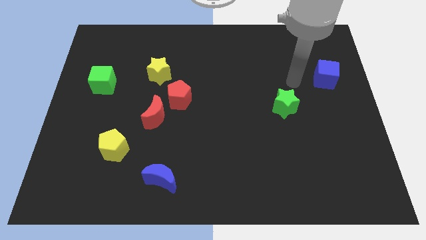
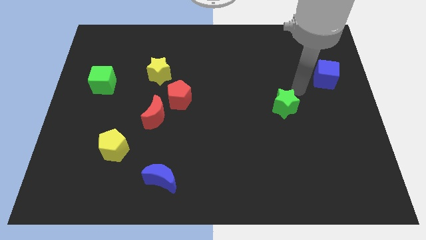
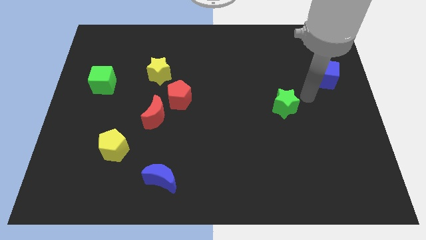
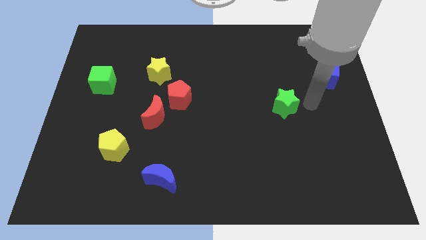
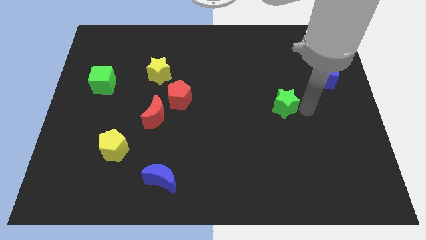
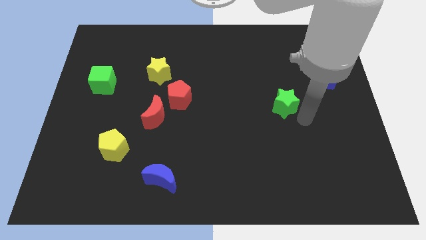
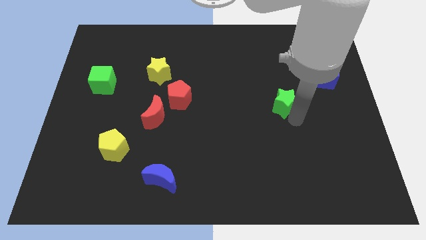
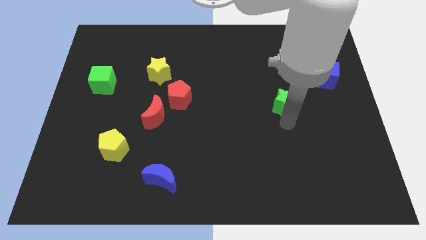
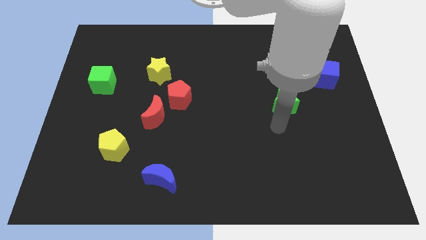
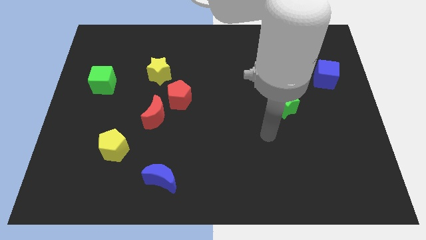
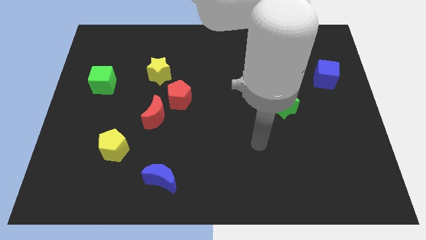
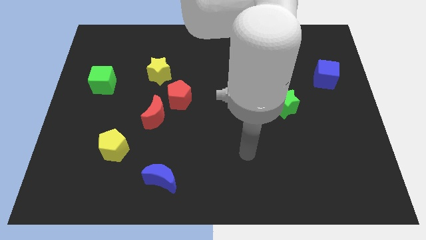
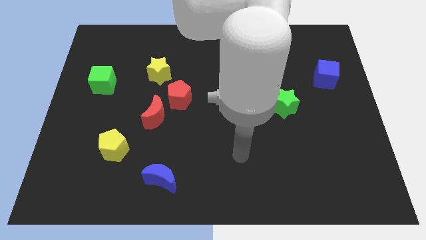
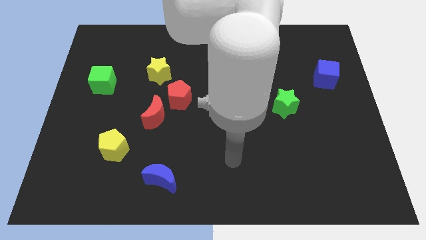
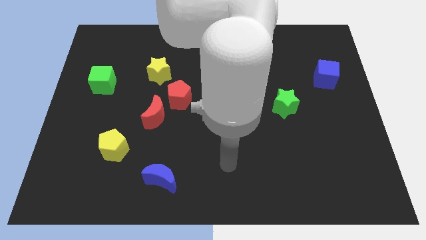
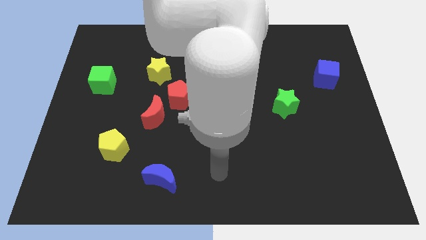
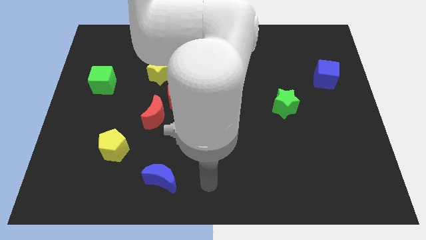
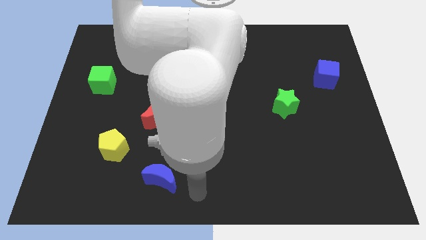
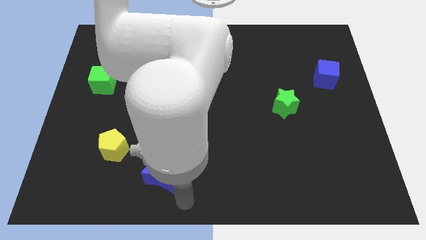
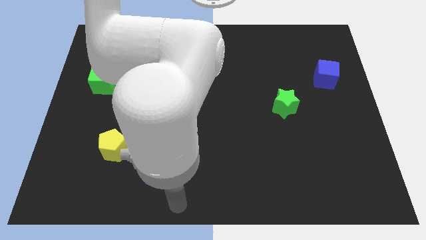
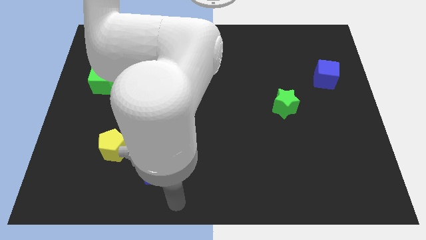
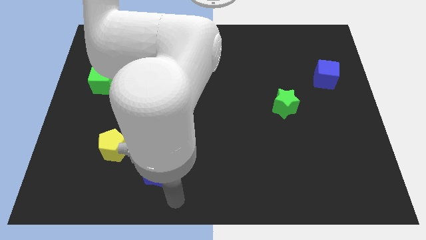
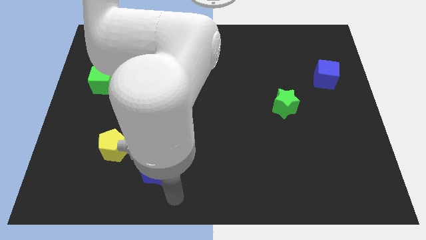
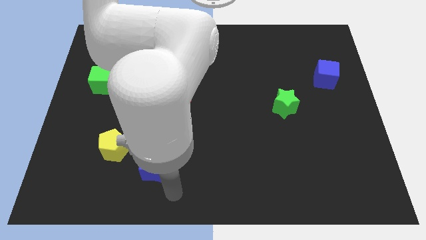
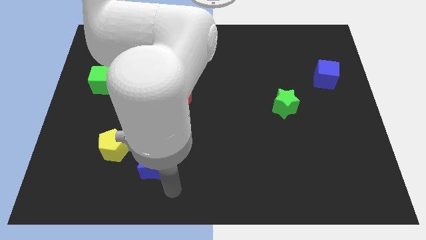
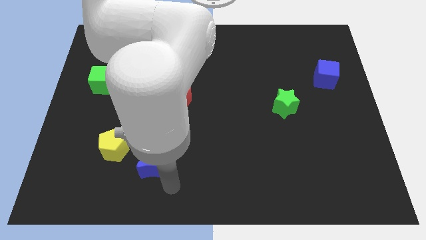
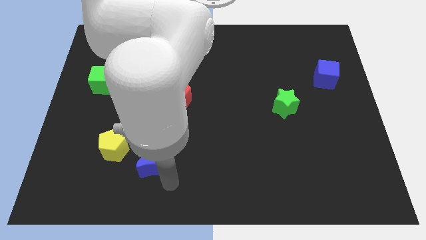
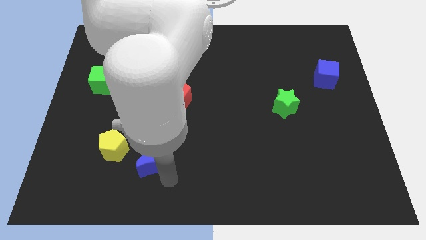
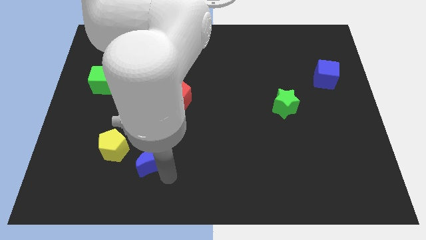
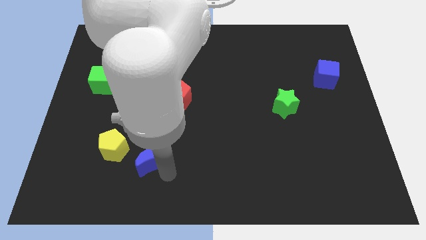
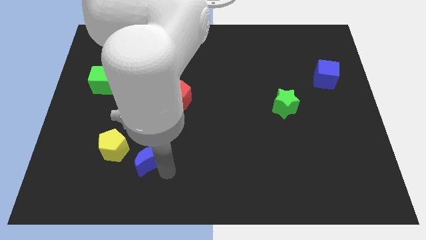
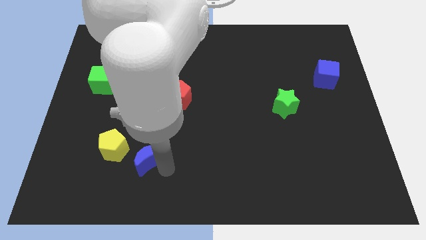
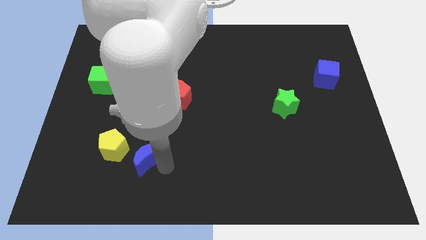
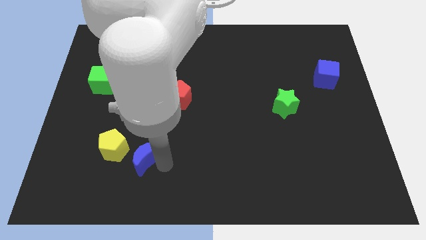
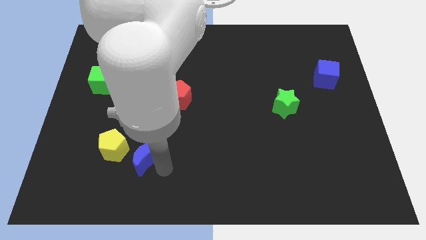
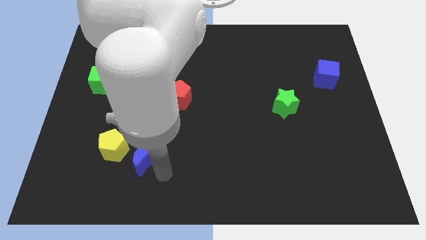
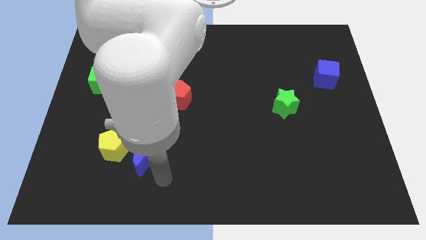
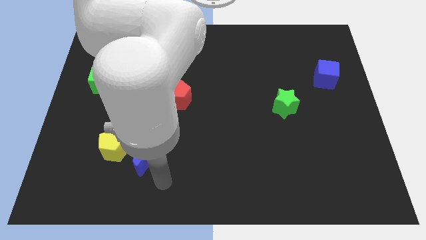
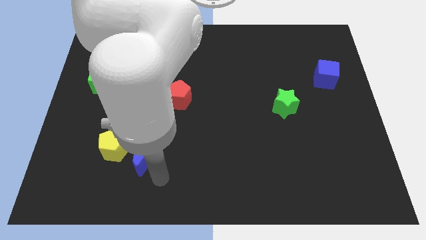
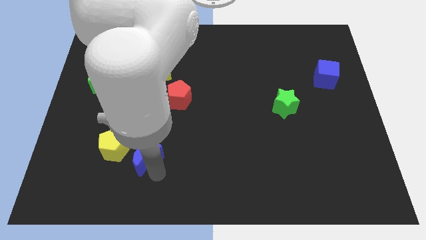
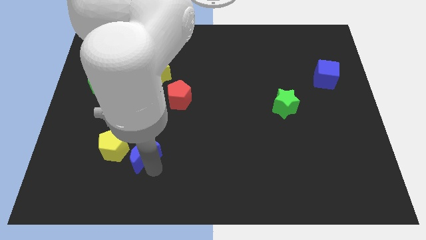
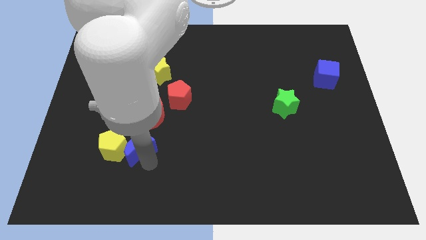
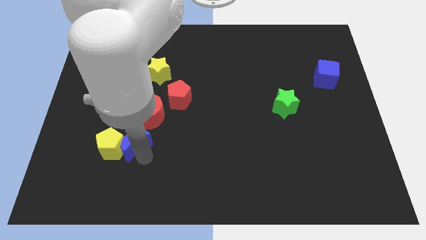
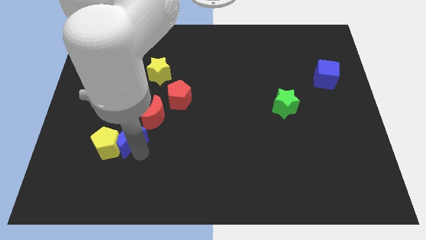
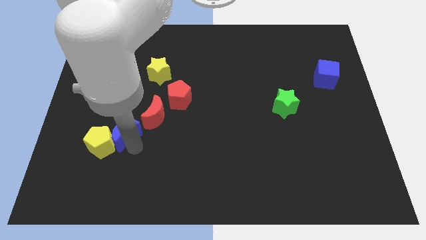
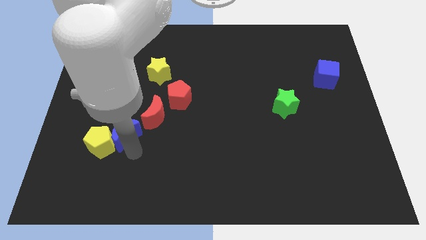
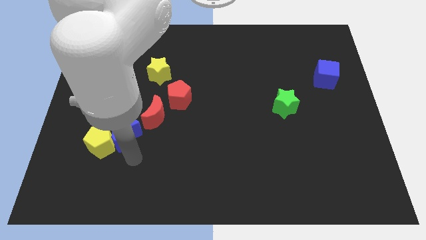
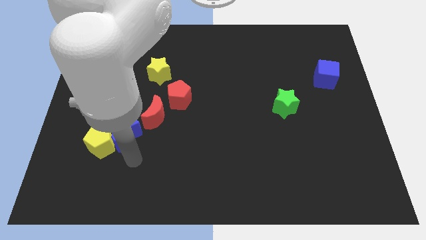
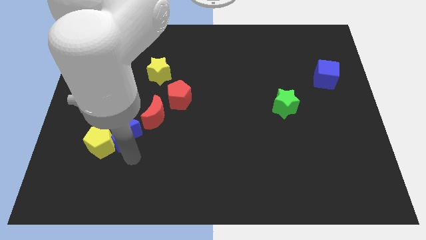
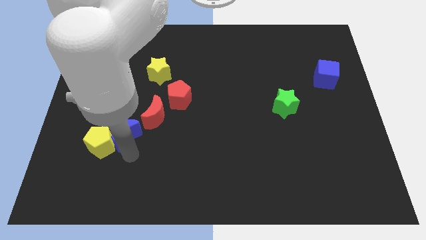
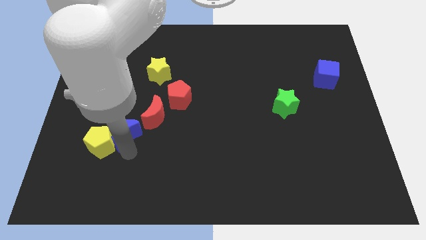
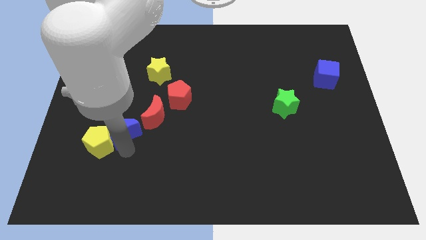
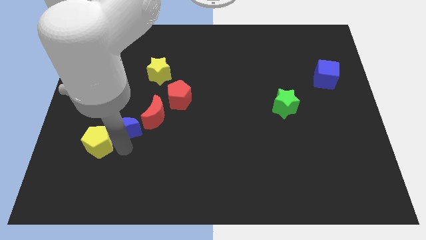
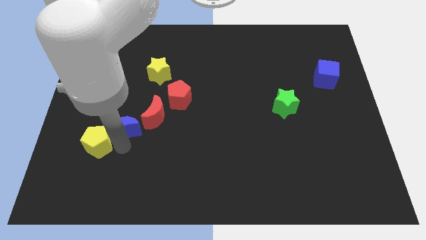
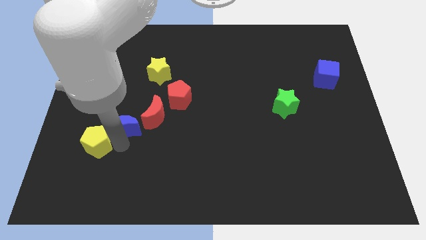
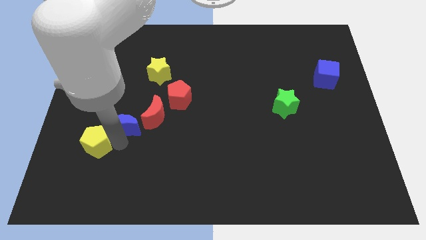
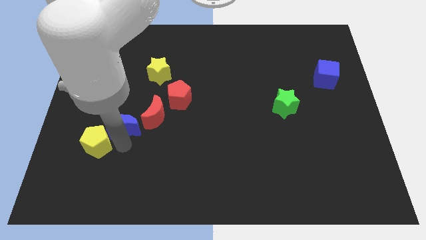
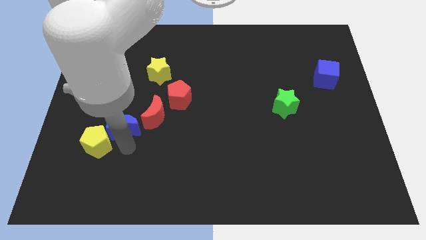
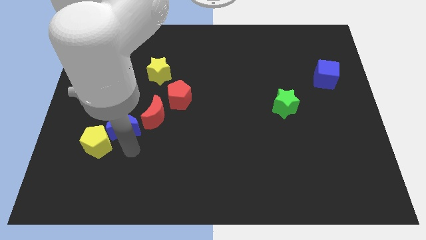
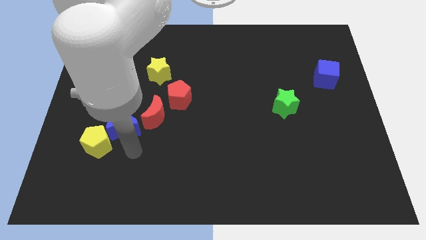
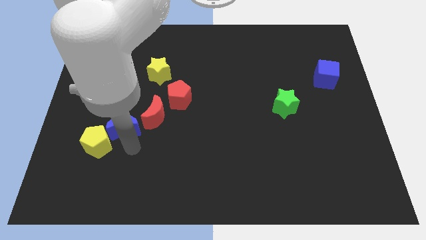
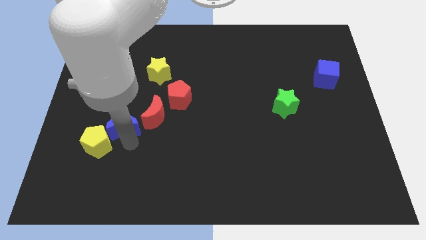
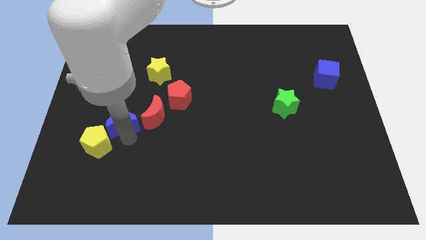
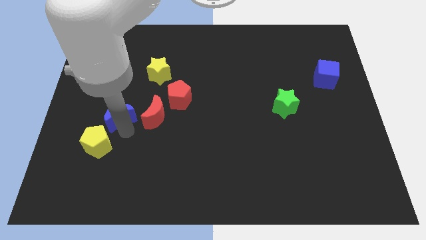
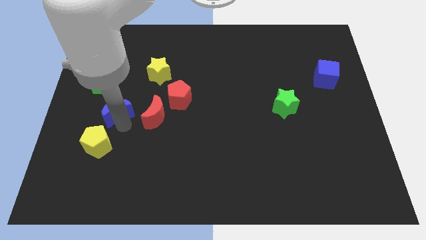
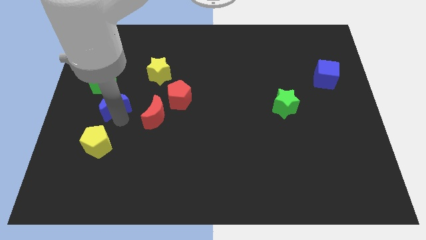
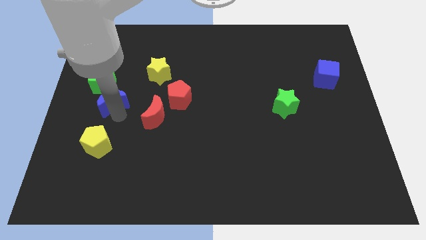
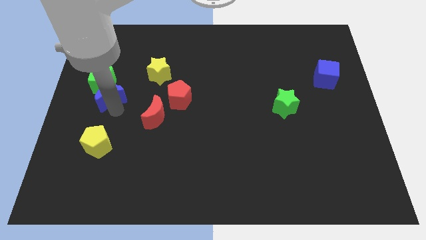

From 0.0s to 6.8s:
slide the blue moon next to the green cube

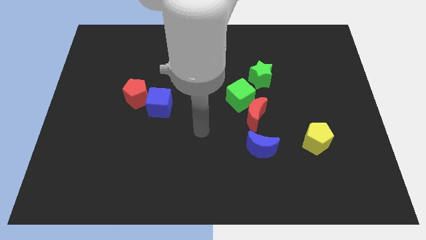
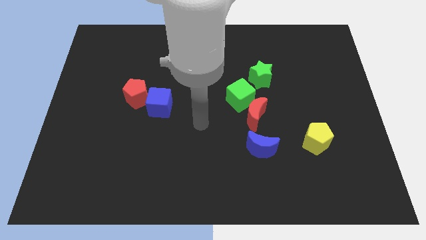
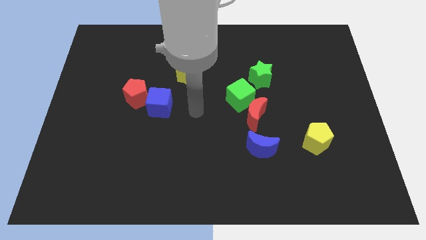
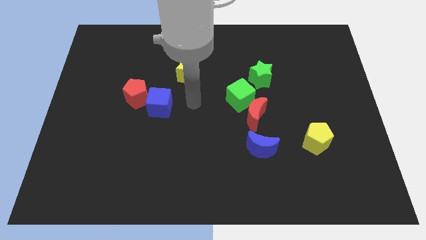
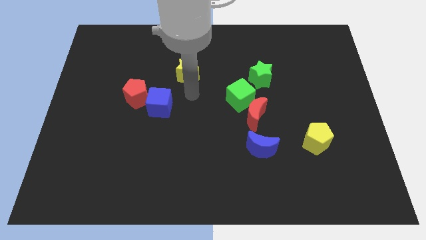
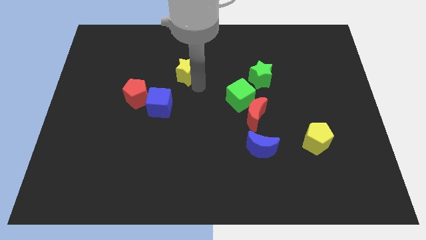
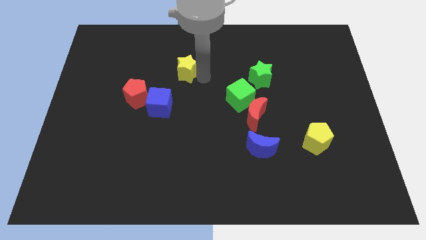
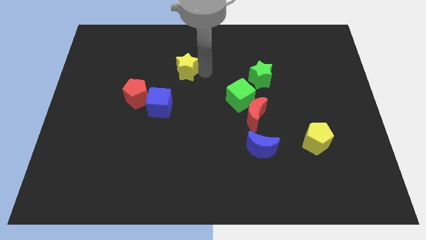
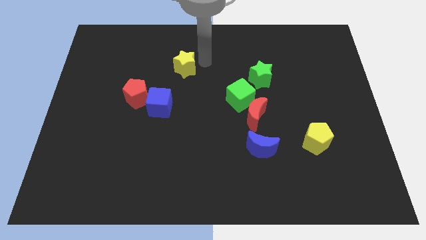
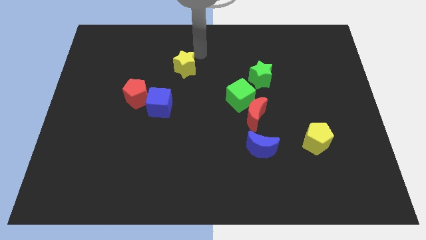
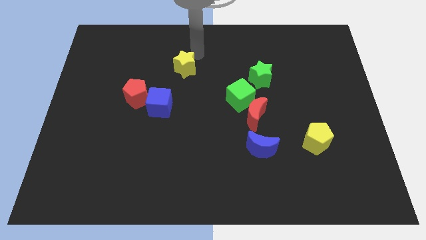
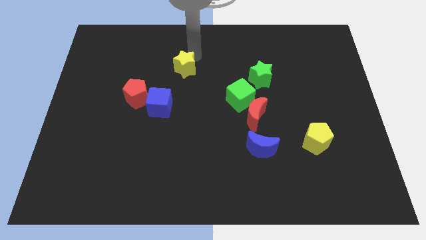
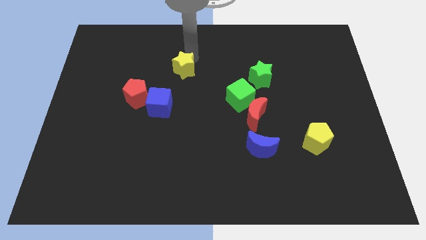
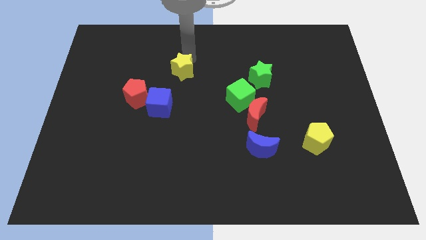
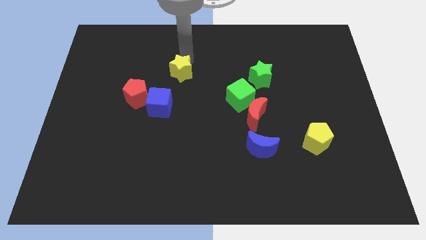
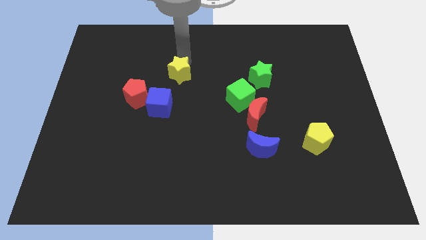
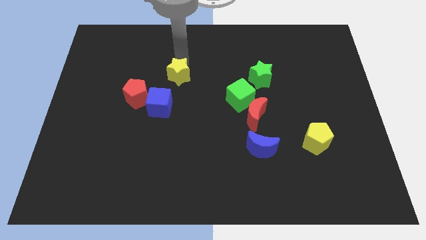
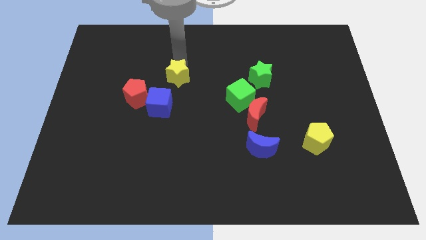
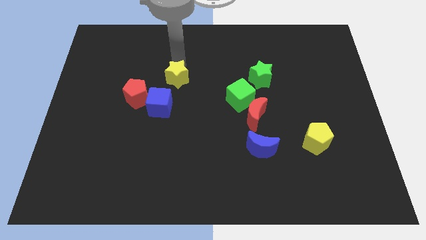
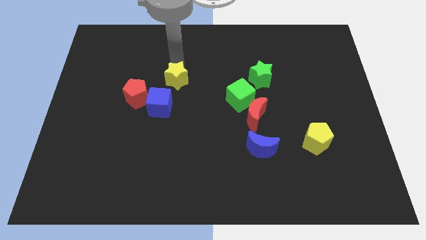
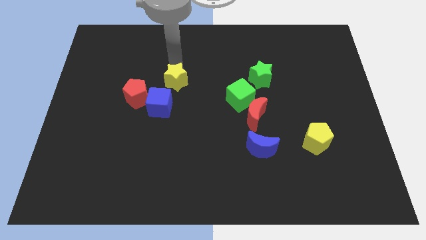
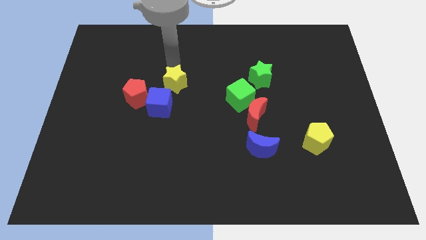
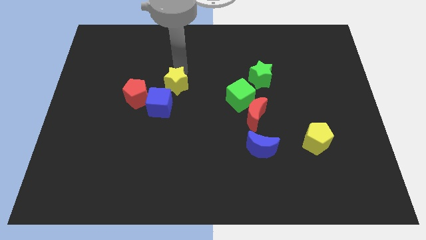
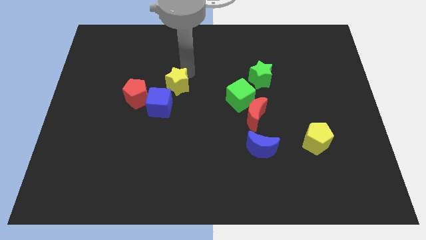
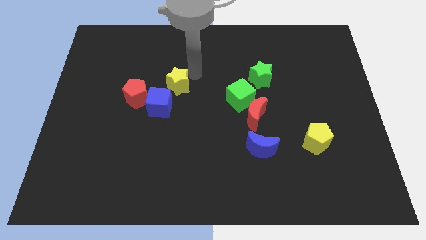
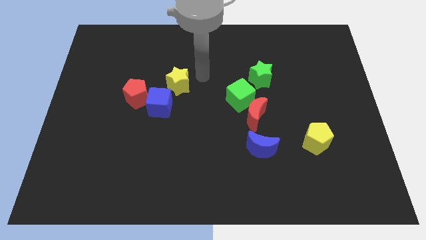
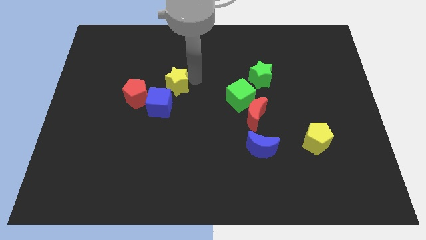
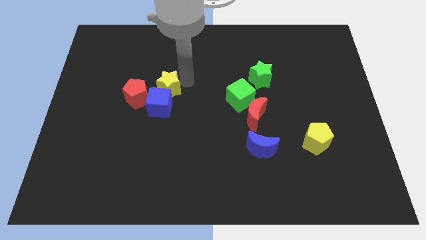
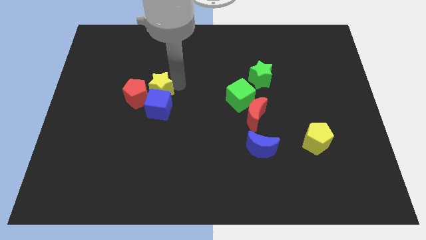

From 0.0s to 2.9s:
push the yellow star towards the red pentagon
